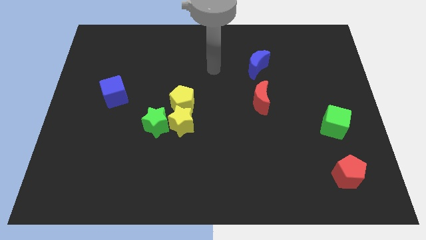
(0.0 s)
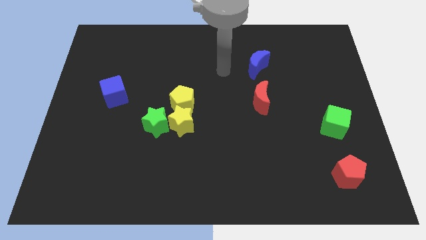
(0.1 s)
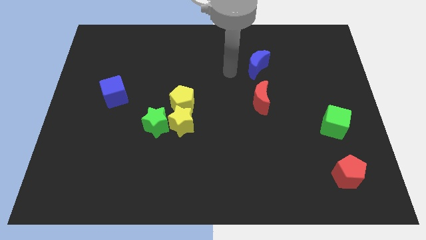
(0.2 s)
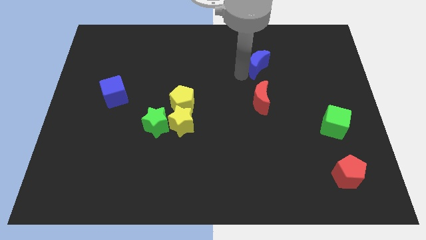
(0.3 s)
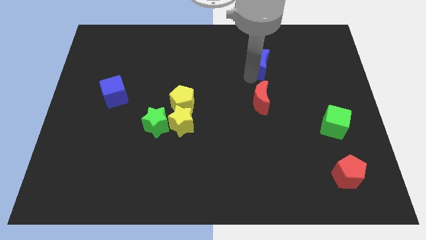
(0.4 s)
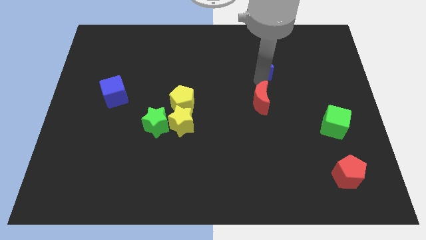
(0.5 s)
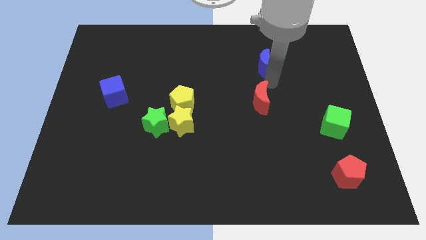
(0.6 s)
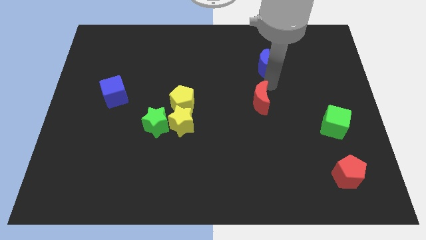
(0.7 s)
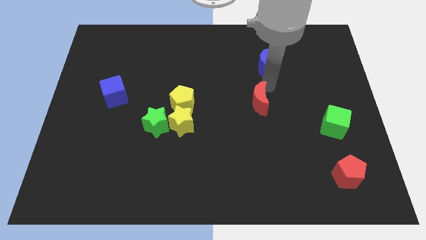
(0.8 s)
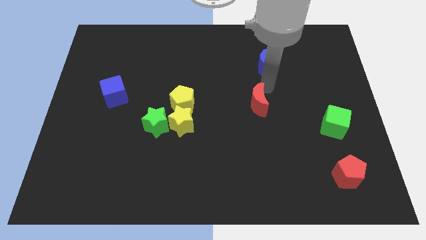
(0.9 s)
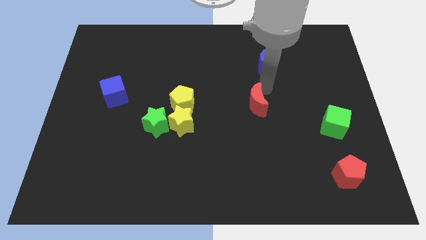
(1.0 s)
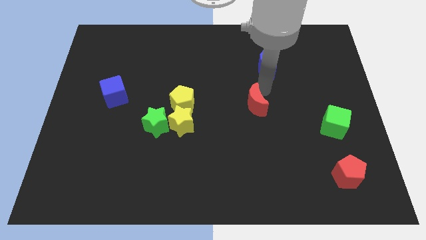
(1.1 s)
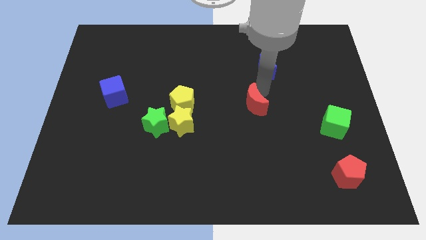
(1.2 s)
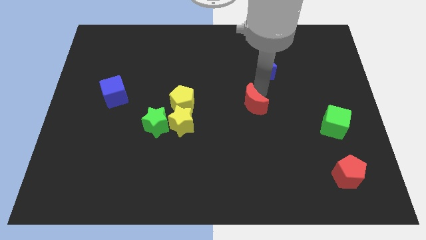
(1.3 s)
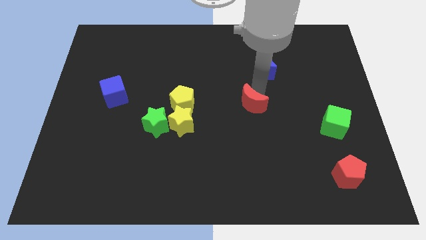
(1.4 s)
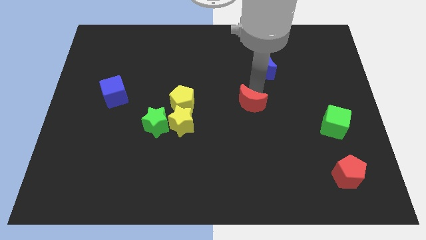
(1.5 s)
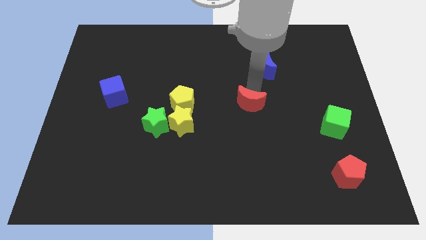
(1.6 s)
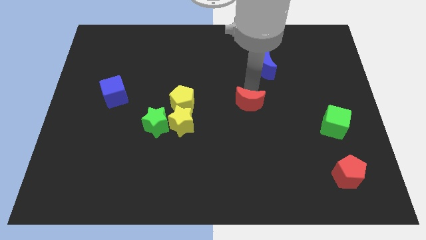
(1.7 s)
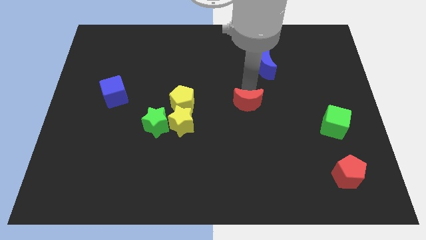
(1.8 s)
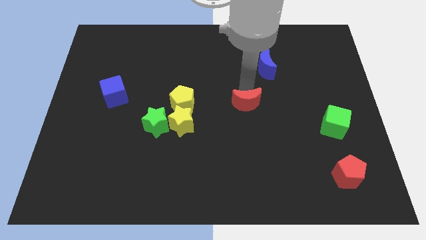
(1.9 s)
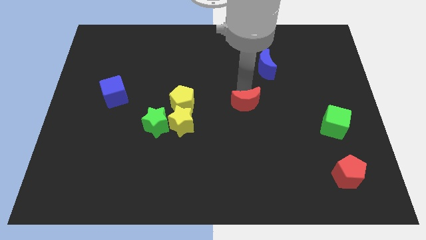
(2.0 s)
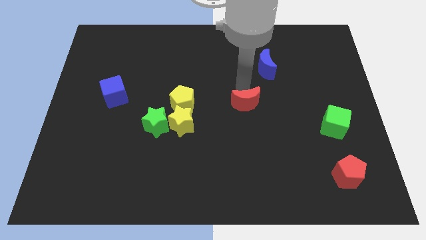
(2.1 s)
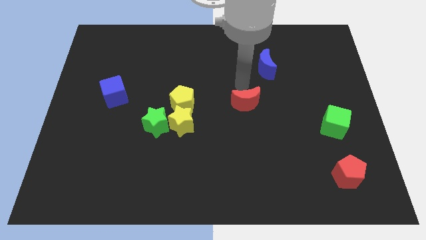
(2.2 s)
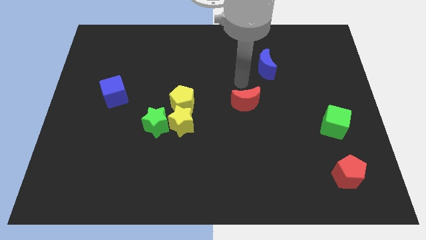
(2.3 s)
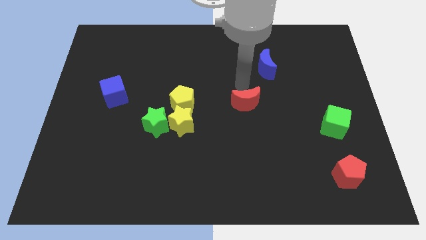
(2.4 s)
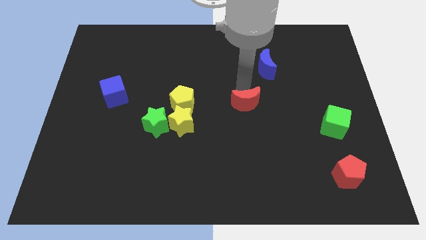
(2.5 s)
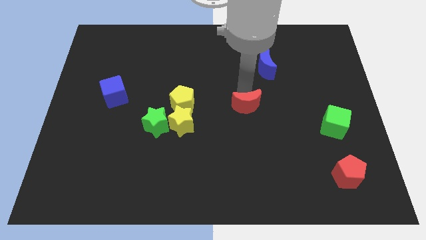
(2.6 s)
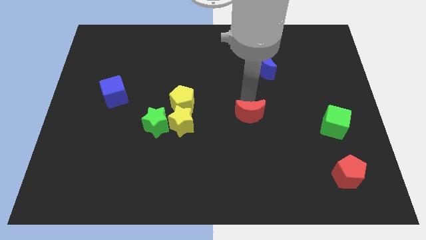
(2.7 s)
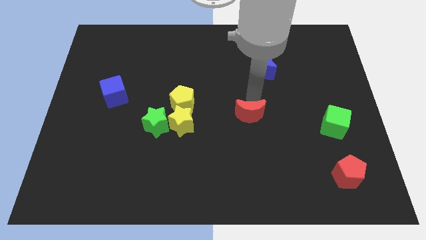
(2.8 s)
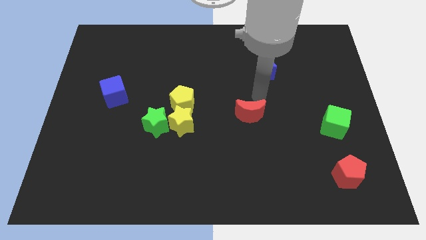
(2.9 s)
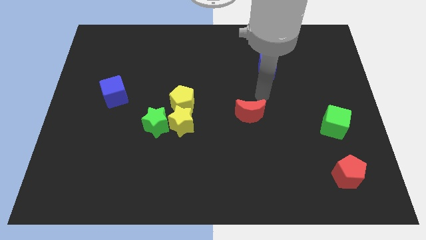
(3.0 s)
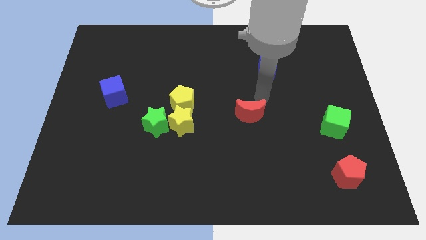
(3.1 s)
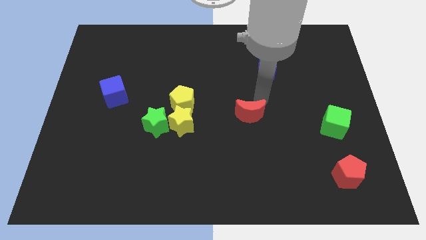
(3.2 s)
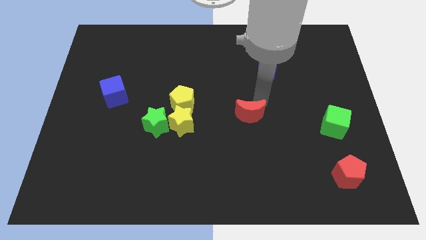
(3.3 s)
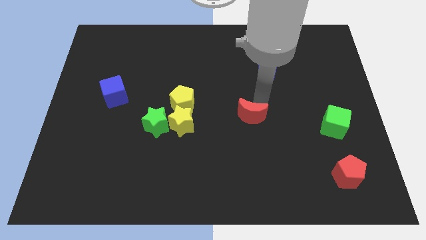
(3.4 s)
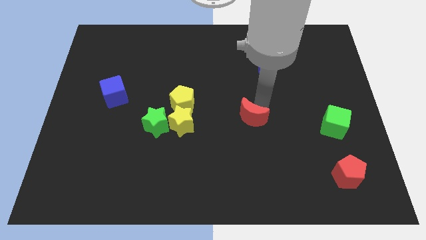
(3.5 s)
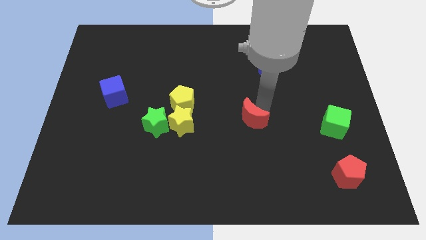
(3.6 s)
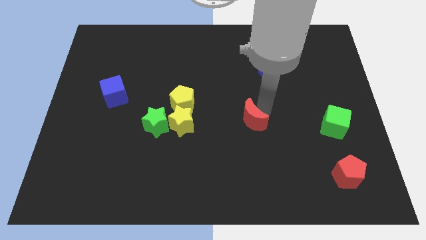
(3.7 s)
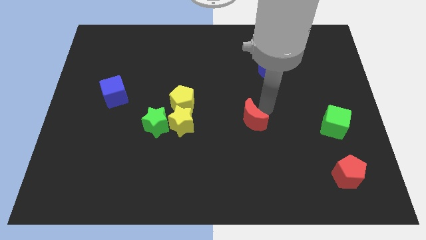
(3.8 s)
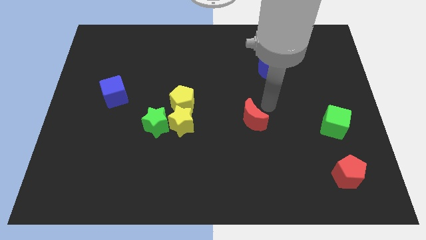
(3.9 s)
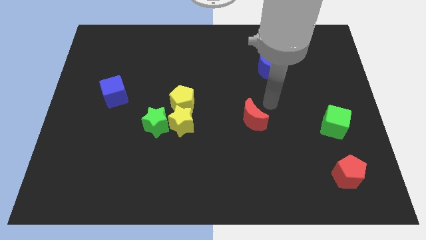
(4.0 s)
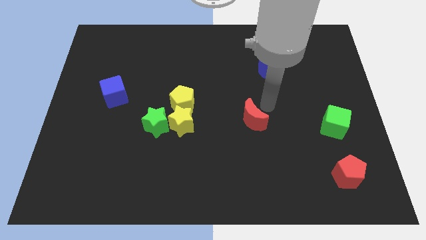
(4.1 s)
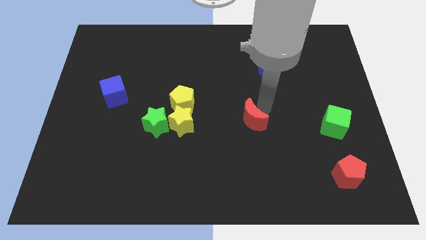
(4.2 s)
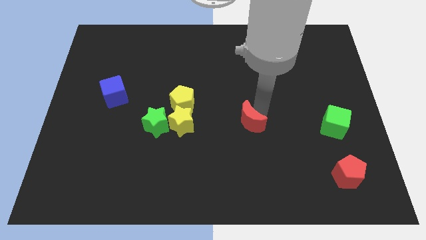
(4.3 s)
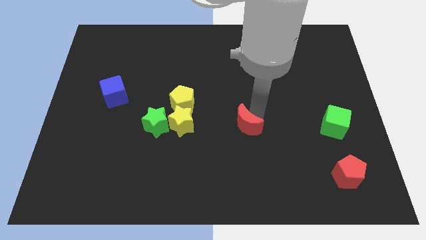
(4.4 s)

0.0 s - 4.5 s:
move the red moon a little diagonally down and to the left

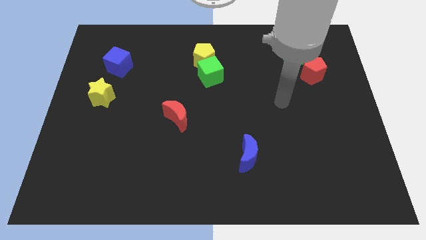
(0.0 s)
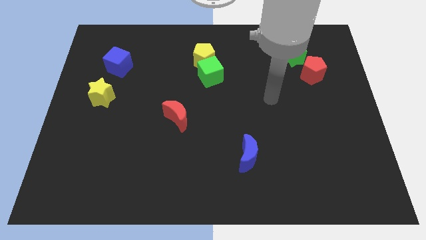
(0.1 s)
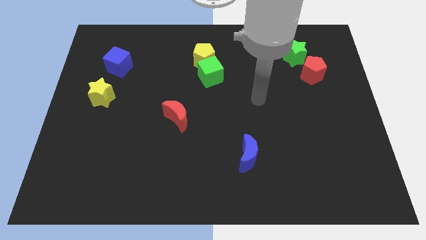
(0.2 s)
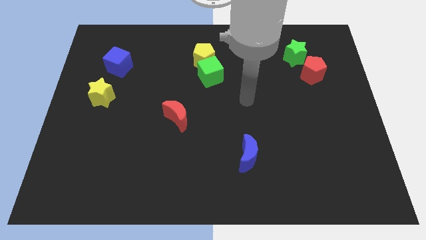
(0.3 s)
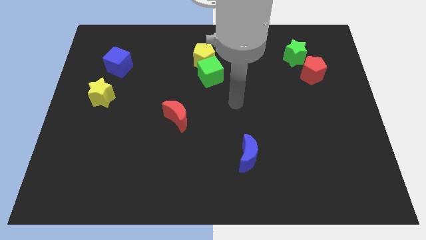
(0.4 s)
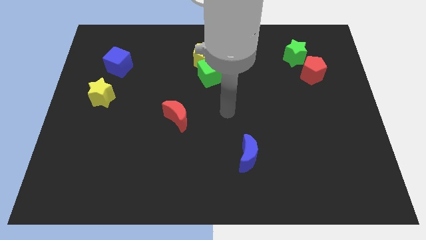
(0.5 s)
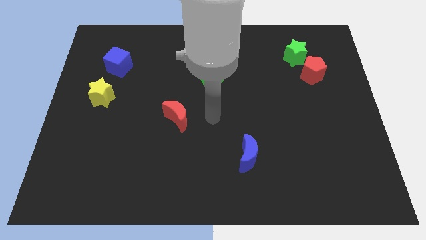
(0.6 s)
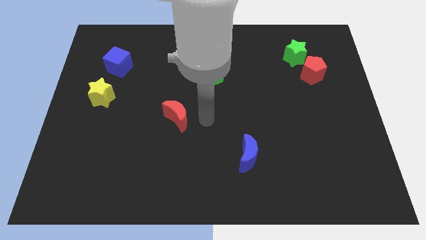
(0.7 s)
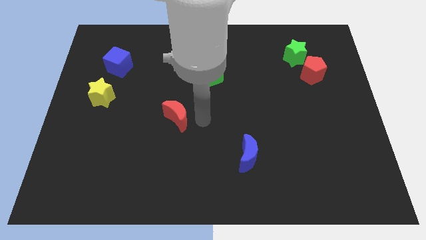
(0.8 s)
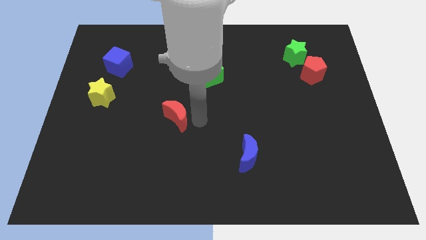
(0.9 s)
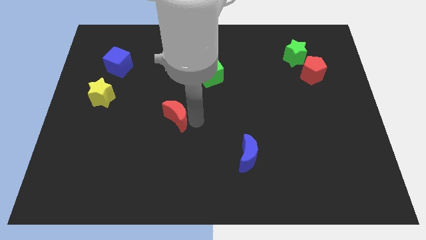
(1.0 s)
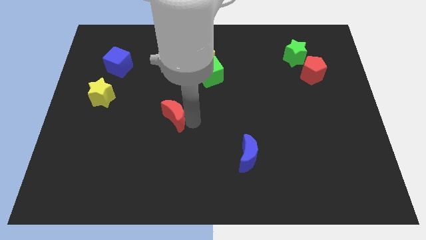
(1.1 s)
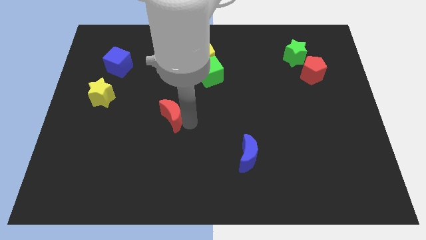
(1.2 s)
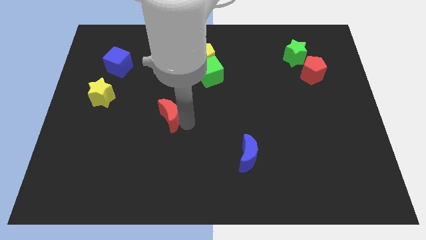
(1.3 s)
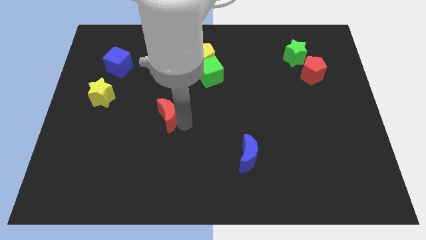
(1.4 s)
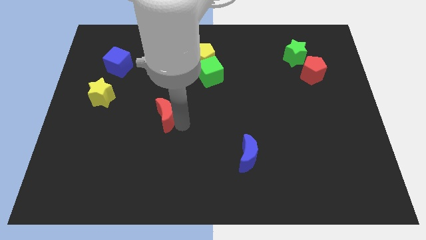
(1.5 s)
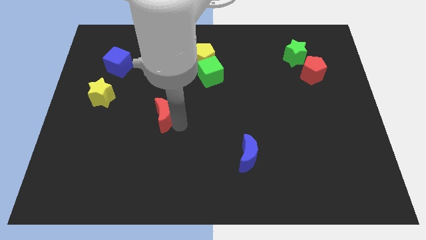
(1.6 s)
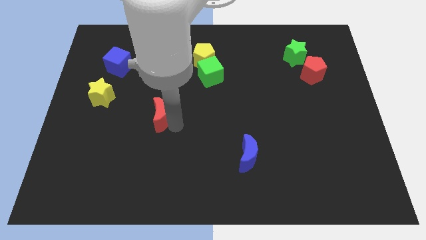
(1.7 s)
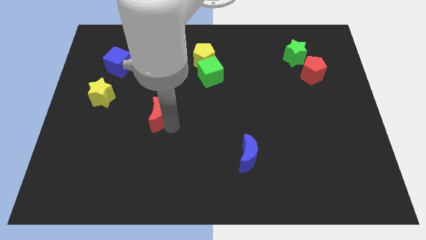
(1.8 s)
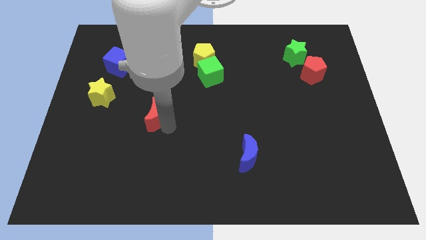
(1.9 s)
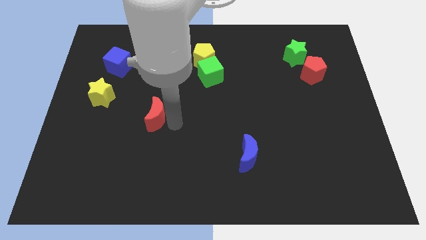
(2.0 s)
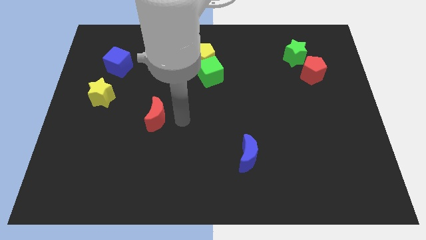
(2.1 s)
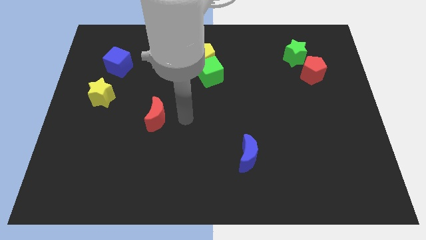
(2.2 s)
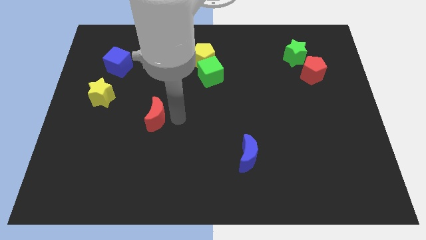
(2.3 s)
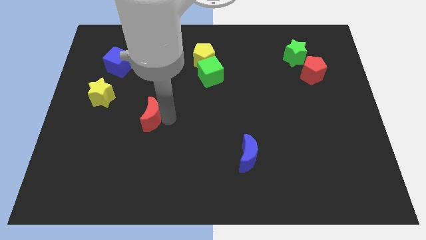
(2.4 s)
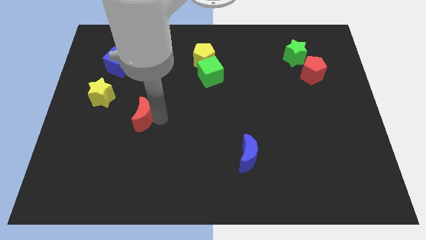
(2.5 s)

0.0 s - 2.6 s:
slightly slide the red moon to the left

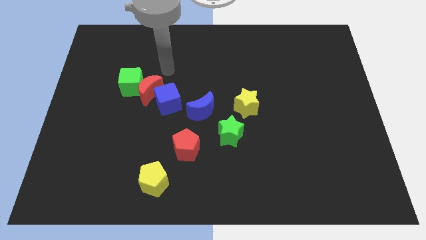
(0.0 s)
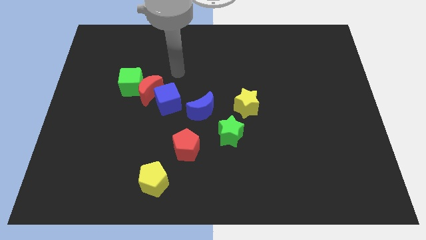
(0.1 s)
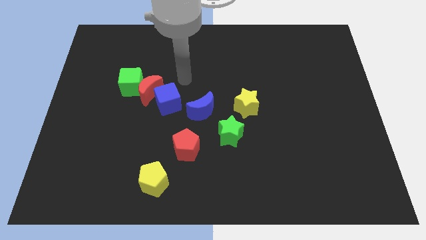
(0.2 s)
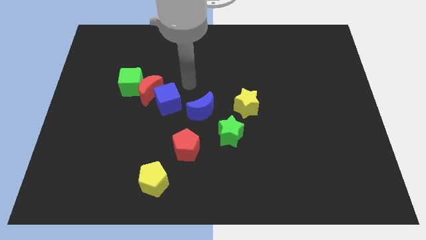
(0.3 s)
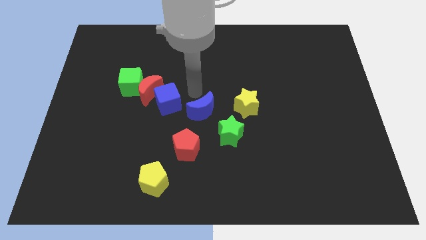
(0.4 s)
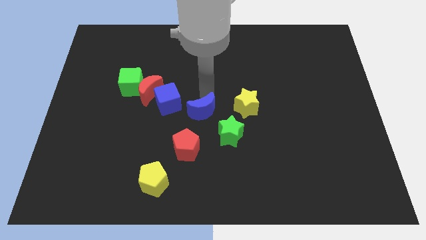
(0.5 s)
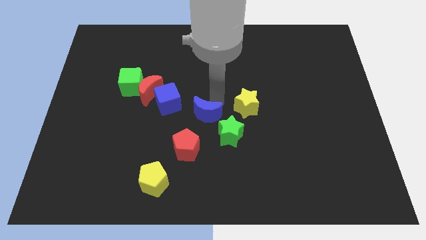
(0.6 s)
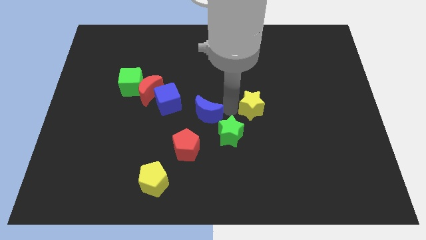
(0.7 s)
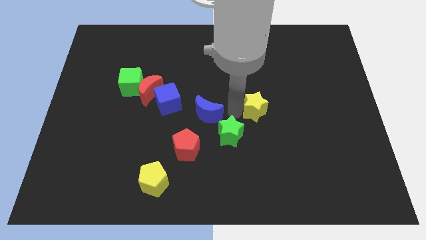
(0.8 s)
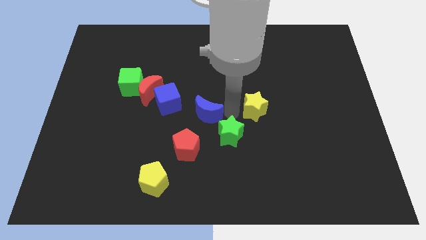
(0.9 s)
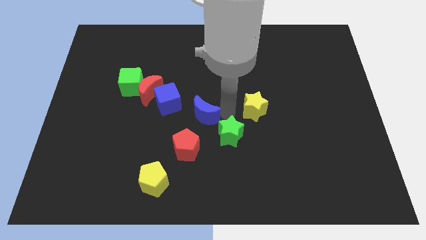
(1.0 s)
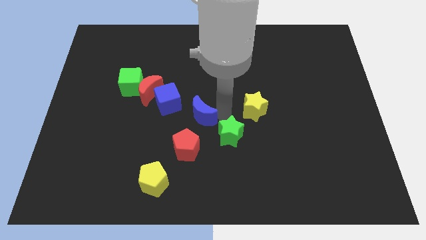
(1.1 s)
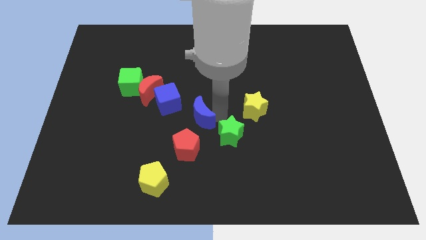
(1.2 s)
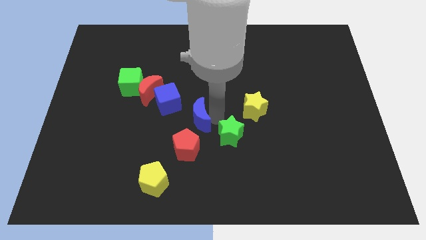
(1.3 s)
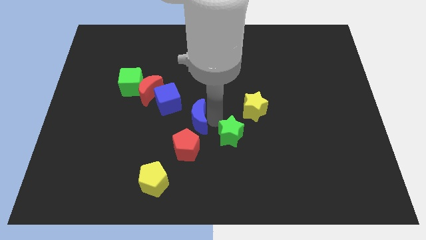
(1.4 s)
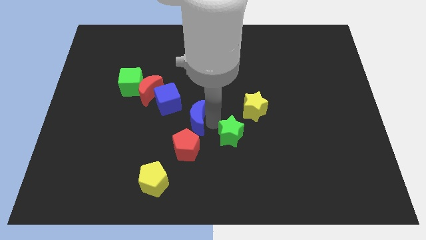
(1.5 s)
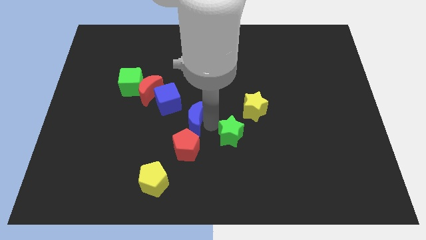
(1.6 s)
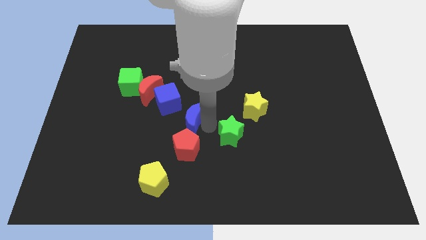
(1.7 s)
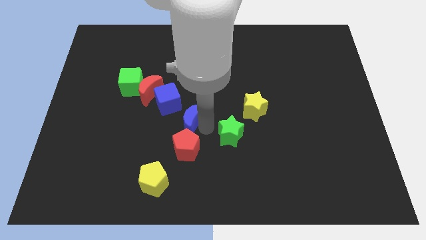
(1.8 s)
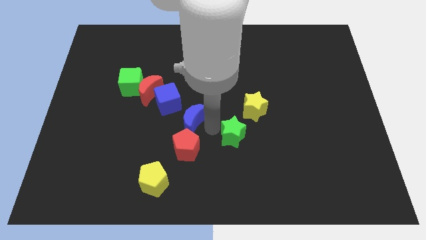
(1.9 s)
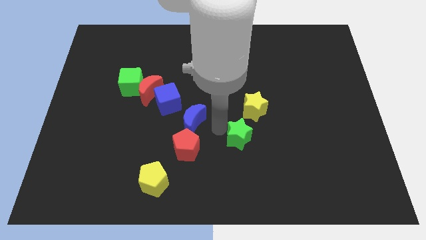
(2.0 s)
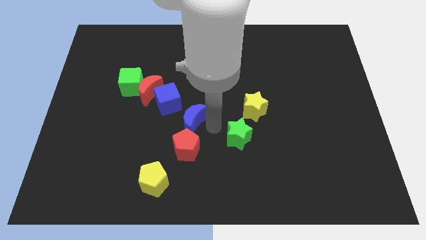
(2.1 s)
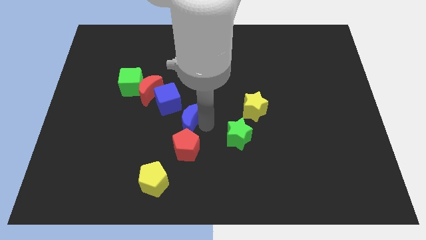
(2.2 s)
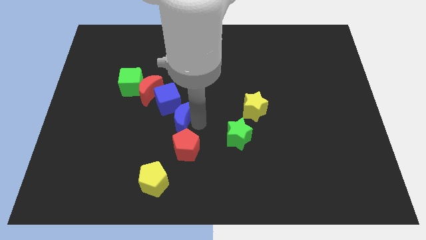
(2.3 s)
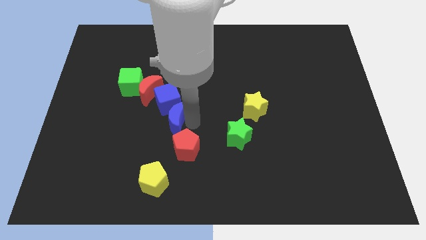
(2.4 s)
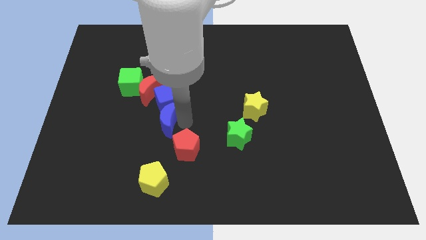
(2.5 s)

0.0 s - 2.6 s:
slightly push the blue moon left
